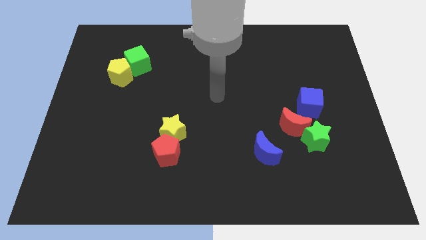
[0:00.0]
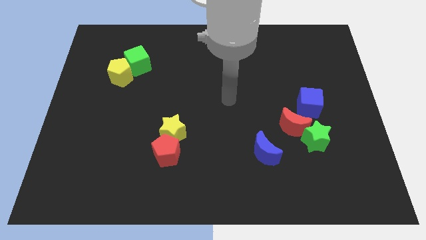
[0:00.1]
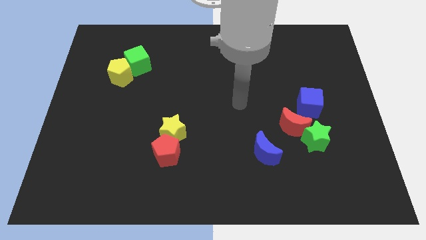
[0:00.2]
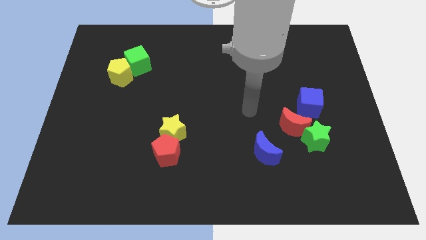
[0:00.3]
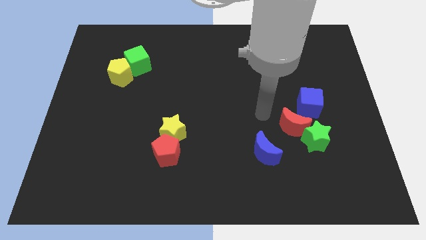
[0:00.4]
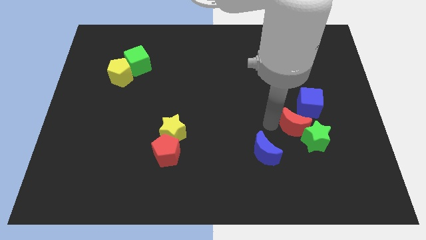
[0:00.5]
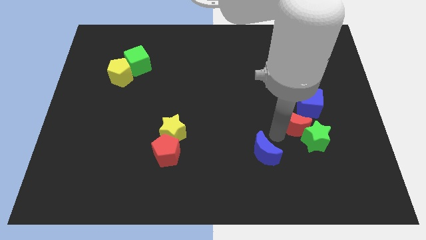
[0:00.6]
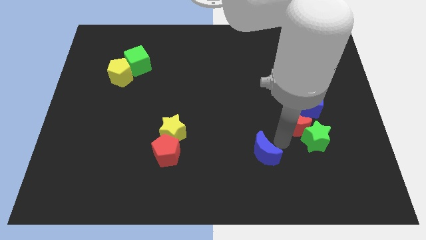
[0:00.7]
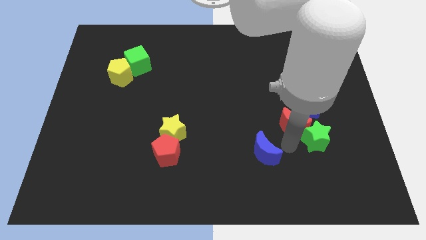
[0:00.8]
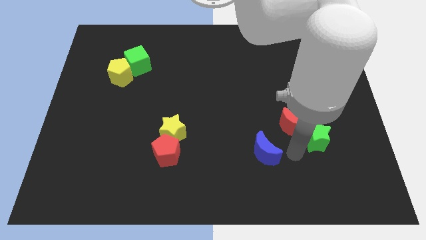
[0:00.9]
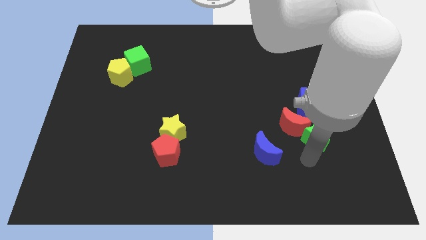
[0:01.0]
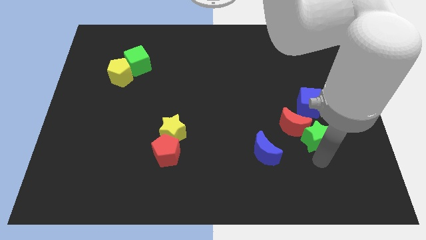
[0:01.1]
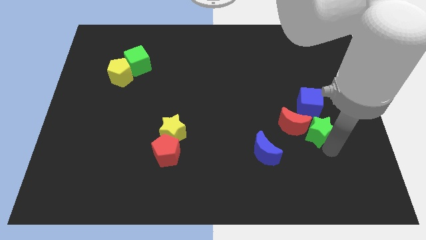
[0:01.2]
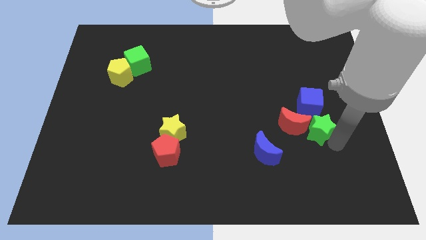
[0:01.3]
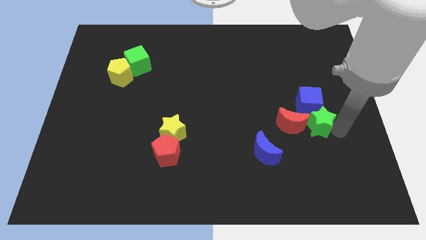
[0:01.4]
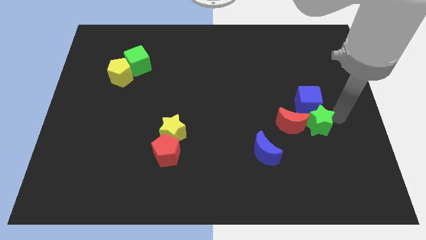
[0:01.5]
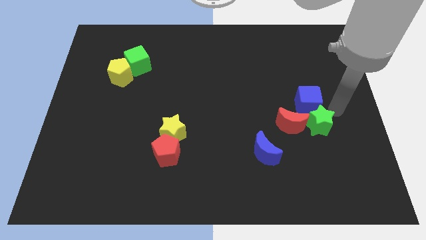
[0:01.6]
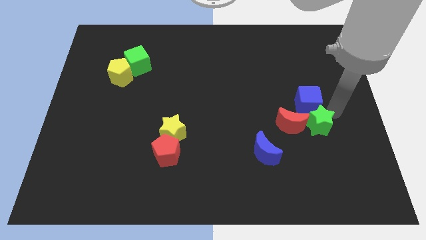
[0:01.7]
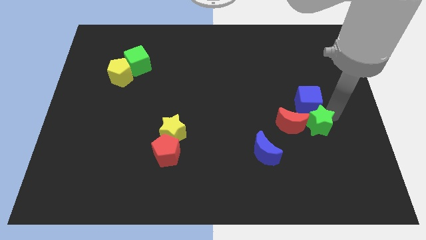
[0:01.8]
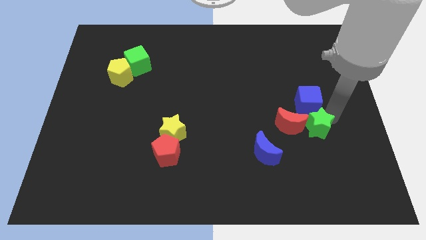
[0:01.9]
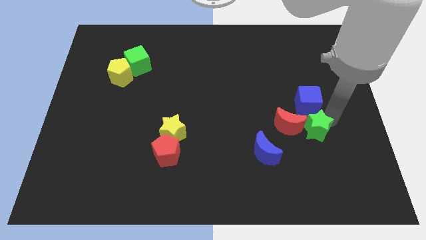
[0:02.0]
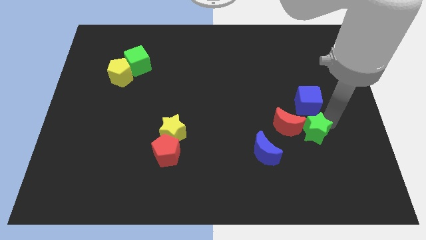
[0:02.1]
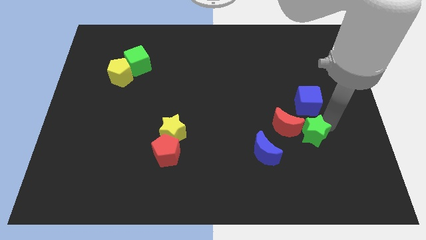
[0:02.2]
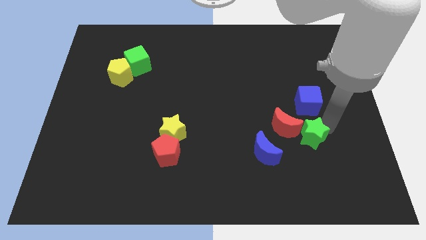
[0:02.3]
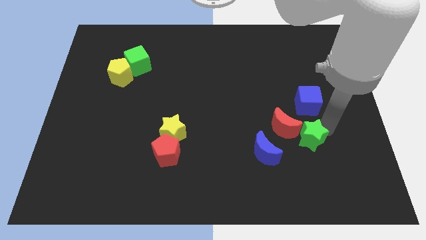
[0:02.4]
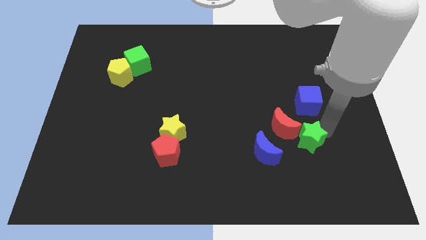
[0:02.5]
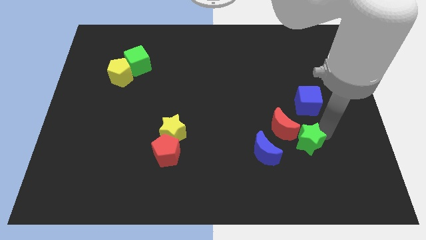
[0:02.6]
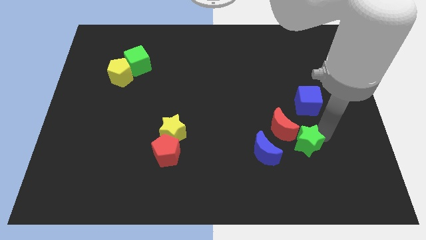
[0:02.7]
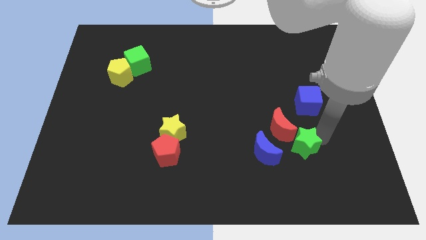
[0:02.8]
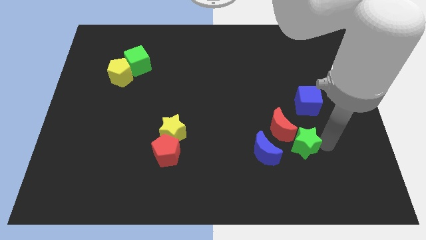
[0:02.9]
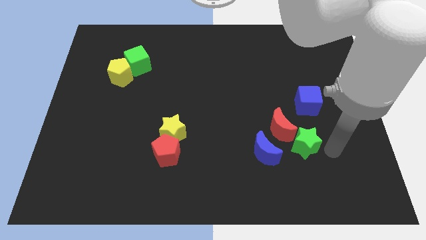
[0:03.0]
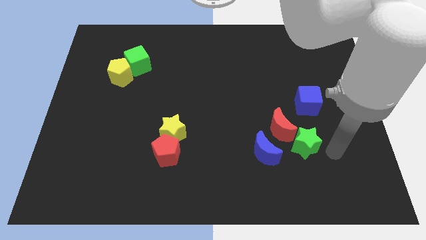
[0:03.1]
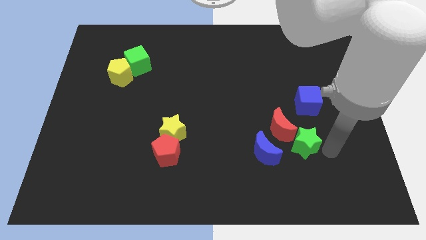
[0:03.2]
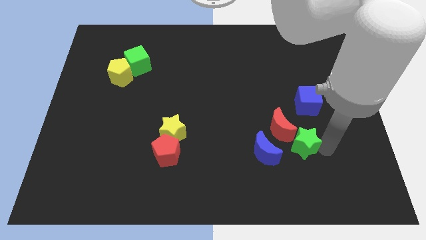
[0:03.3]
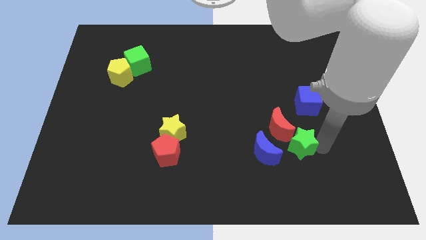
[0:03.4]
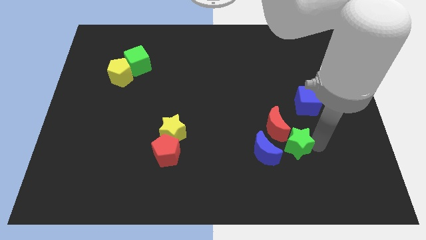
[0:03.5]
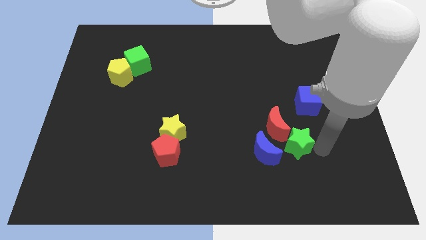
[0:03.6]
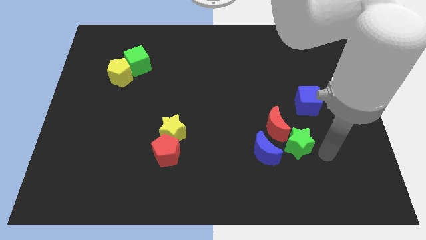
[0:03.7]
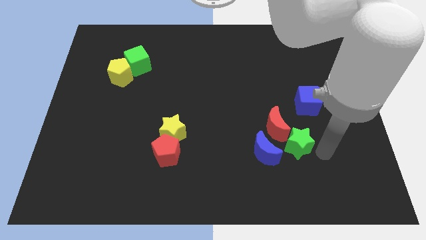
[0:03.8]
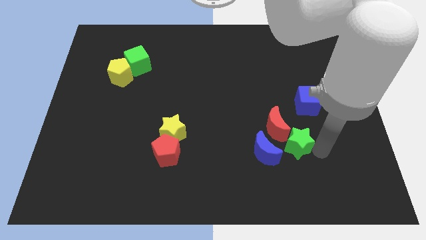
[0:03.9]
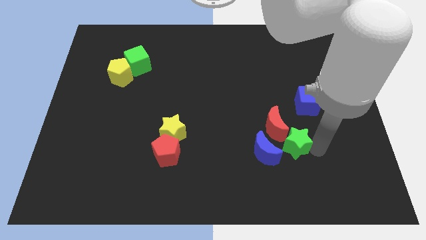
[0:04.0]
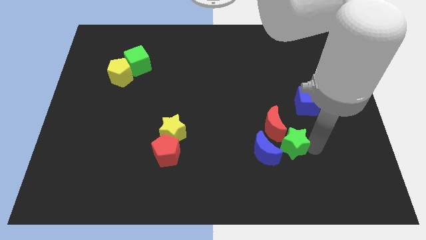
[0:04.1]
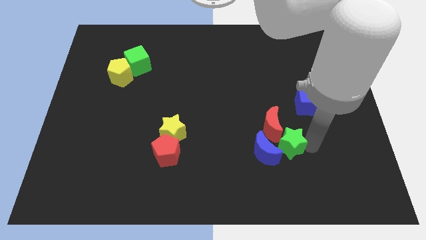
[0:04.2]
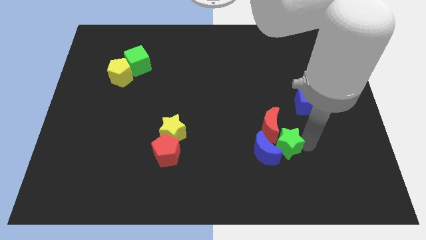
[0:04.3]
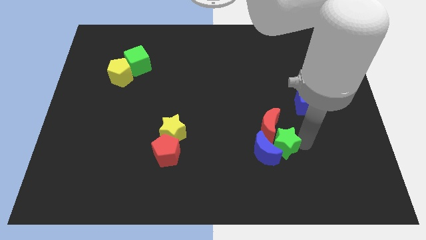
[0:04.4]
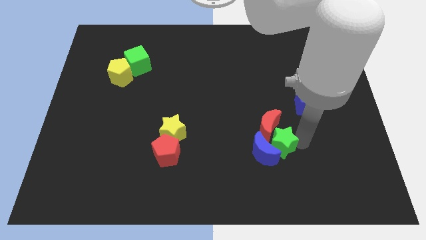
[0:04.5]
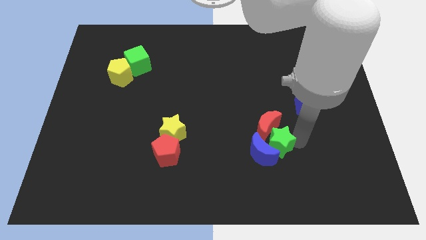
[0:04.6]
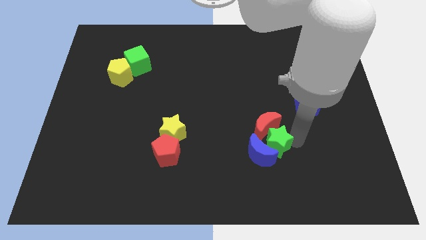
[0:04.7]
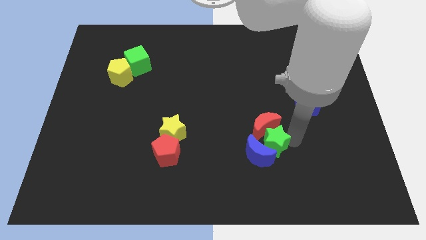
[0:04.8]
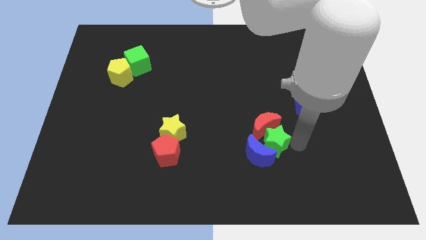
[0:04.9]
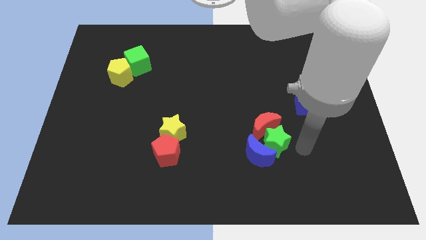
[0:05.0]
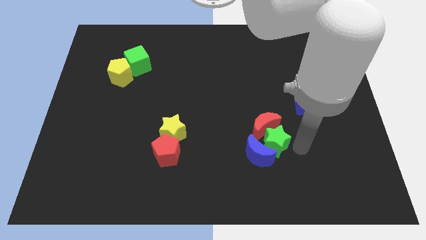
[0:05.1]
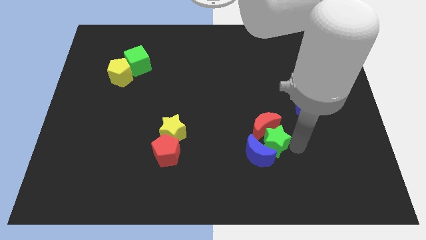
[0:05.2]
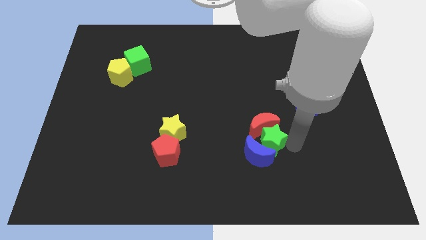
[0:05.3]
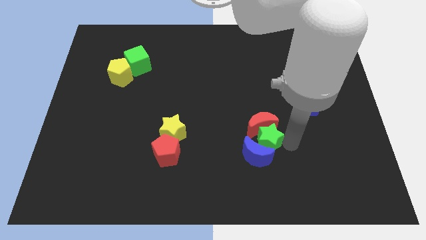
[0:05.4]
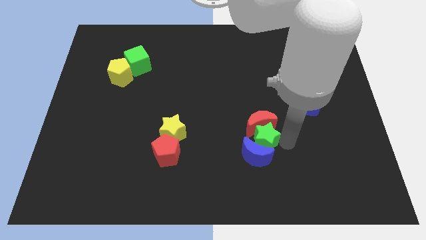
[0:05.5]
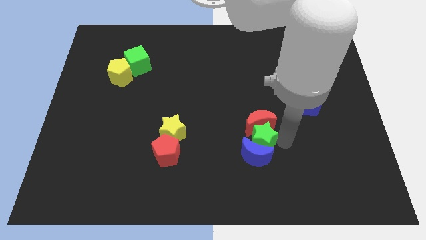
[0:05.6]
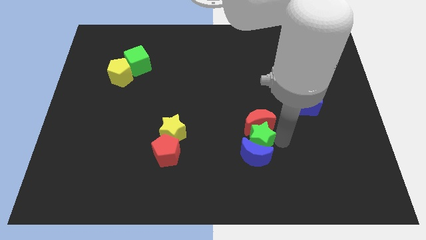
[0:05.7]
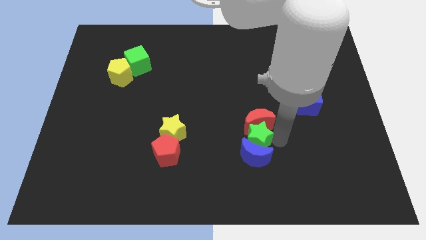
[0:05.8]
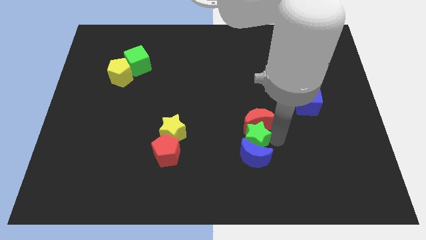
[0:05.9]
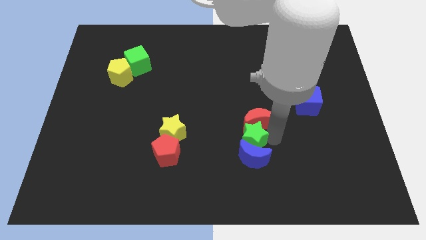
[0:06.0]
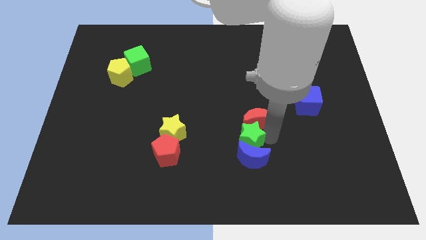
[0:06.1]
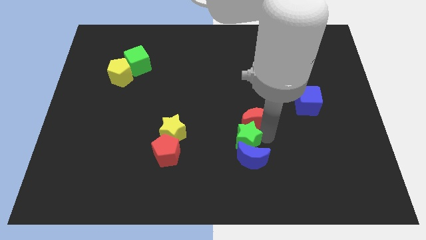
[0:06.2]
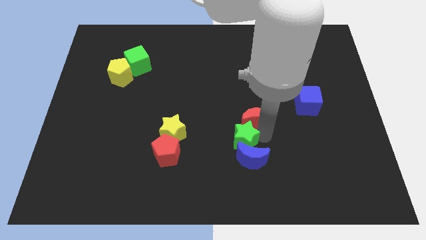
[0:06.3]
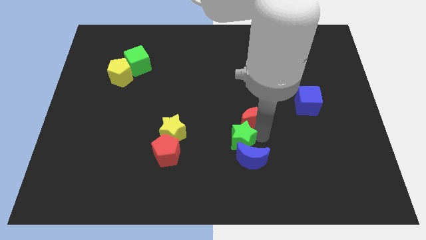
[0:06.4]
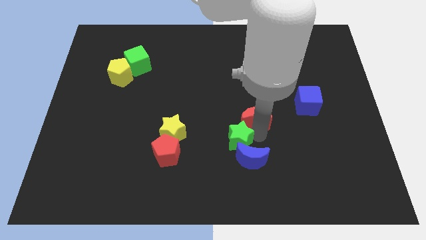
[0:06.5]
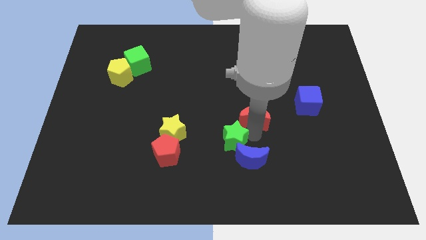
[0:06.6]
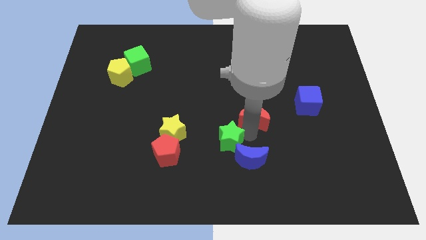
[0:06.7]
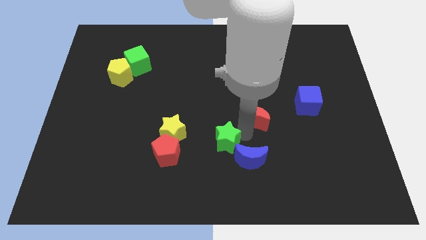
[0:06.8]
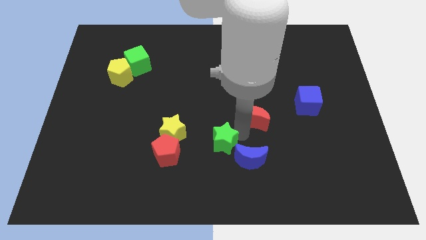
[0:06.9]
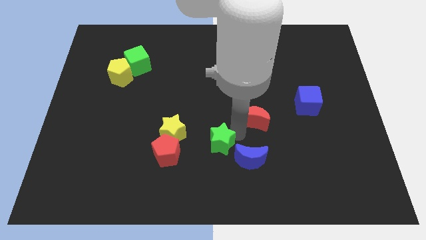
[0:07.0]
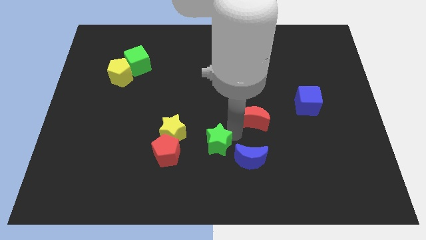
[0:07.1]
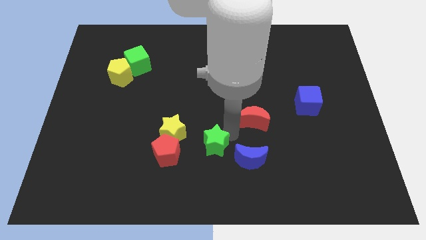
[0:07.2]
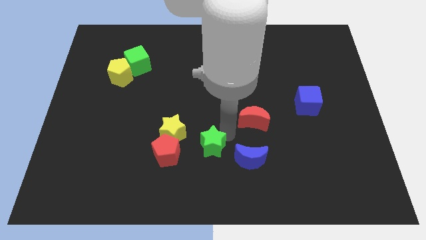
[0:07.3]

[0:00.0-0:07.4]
move the green star diagonally up and to the right of the red pentagon
